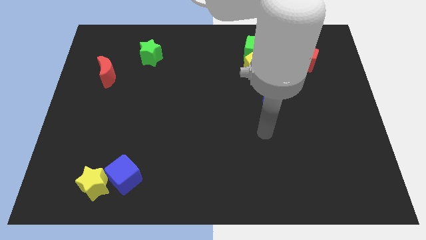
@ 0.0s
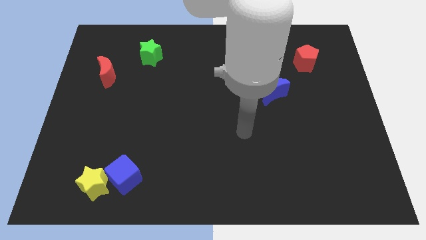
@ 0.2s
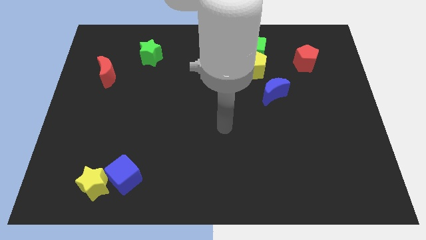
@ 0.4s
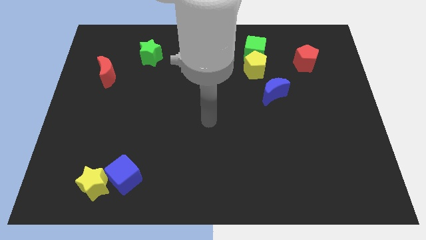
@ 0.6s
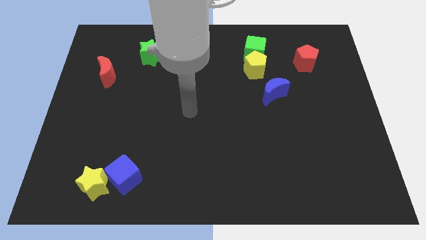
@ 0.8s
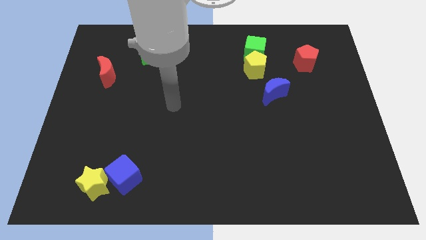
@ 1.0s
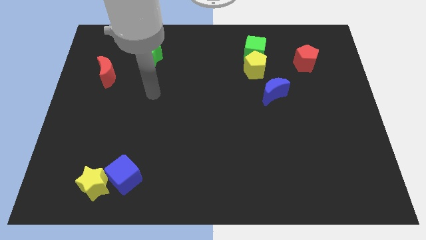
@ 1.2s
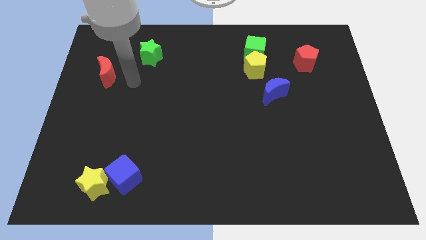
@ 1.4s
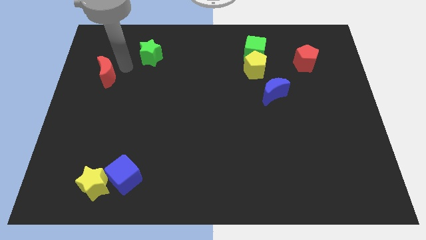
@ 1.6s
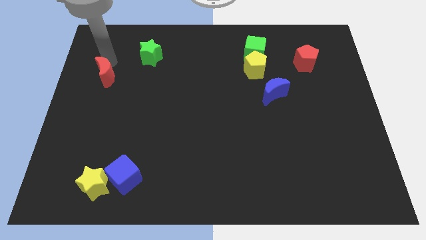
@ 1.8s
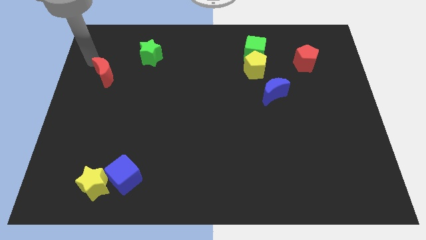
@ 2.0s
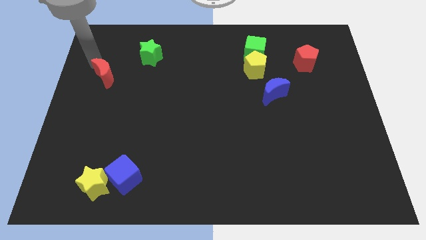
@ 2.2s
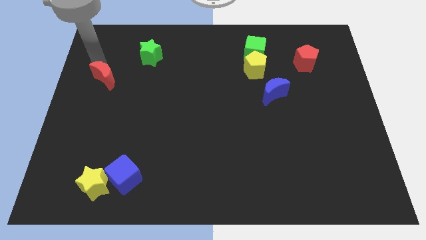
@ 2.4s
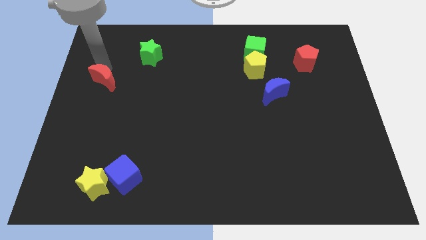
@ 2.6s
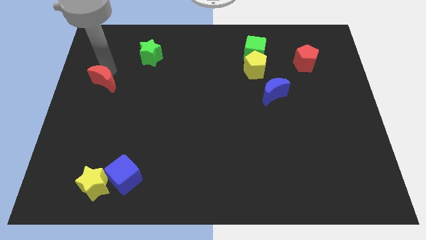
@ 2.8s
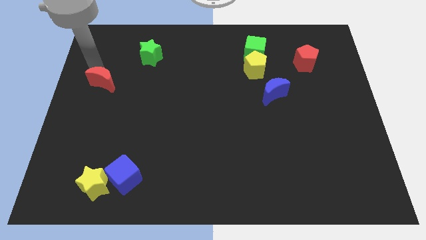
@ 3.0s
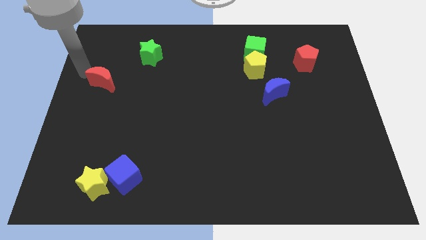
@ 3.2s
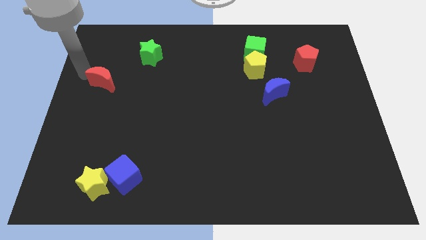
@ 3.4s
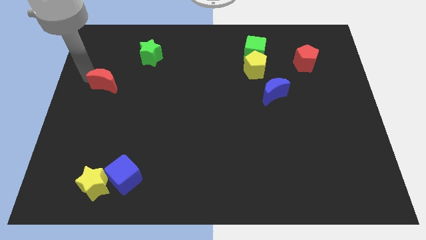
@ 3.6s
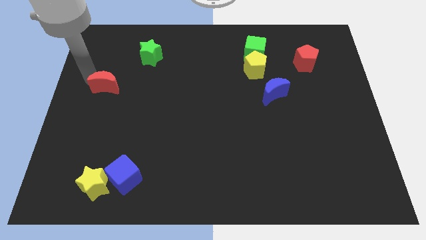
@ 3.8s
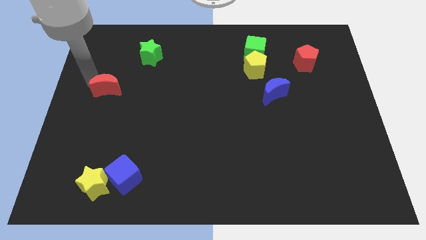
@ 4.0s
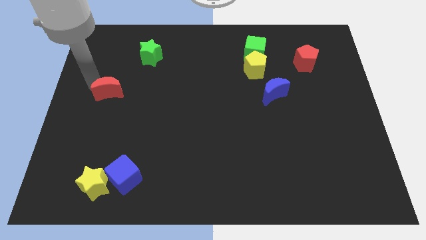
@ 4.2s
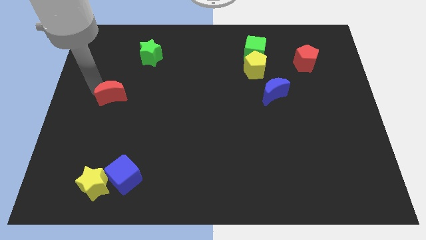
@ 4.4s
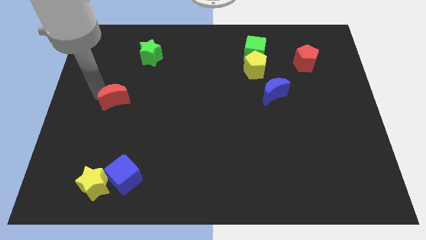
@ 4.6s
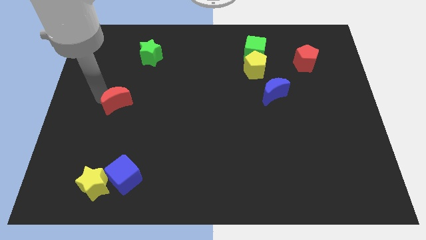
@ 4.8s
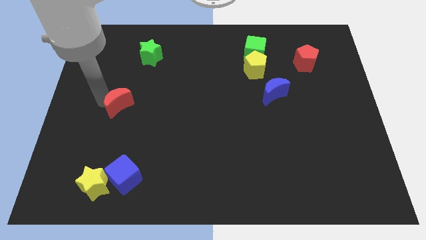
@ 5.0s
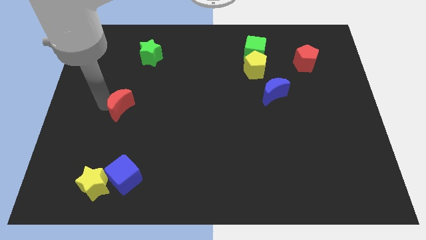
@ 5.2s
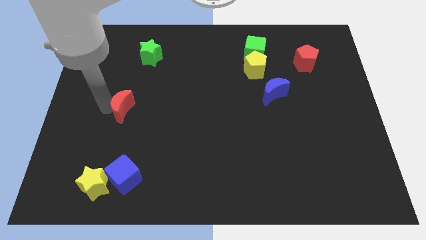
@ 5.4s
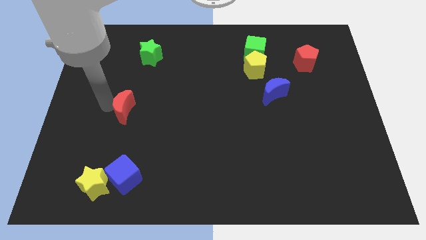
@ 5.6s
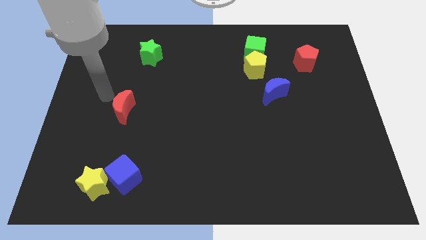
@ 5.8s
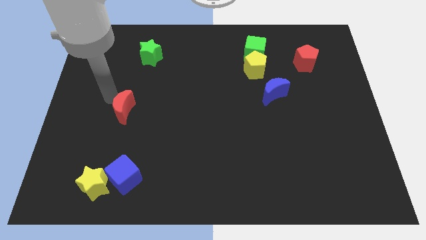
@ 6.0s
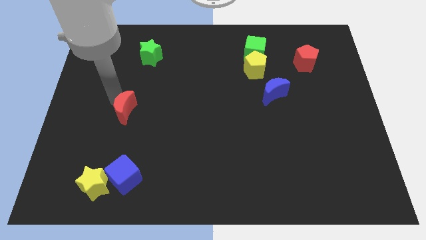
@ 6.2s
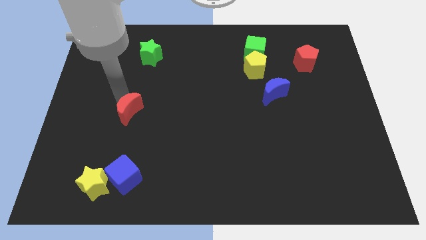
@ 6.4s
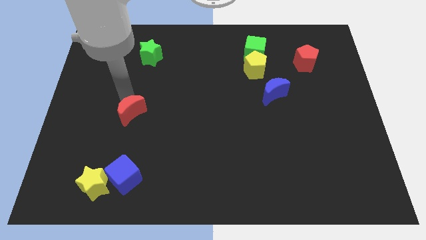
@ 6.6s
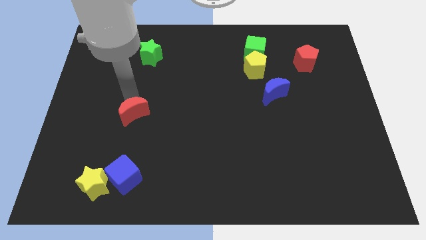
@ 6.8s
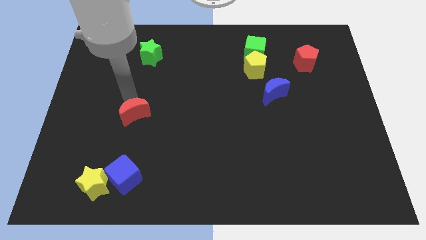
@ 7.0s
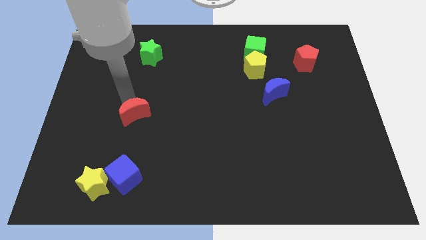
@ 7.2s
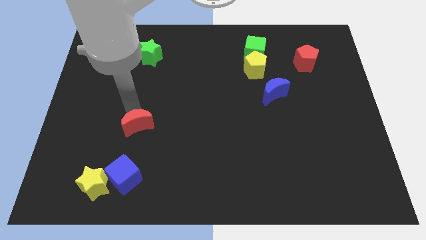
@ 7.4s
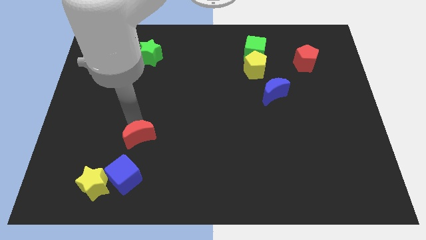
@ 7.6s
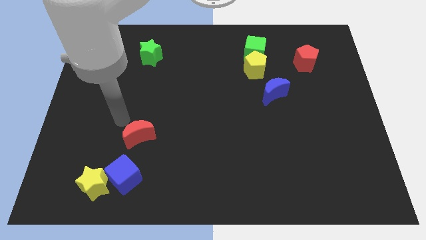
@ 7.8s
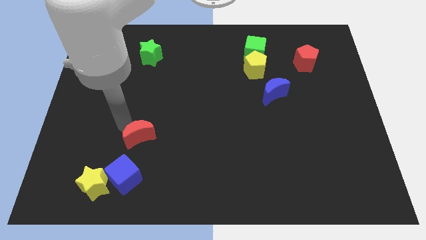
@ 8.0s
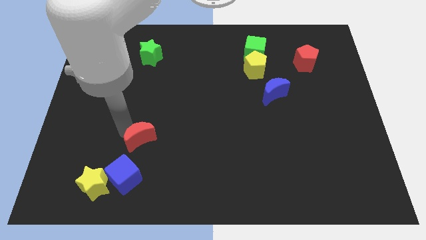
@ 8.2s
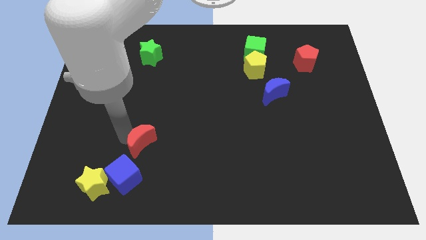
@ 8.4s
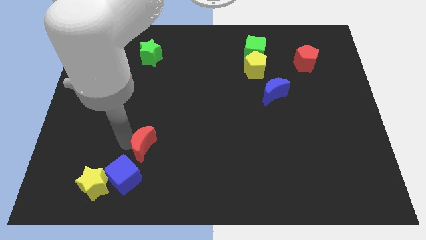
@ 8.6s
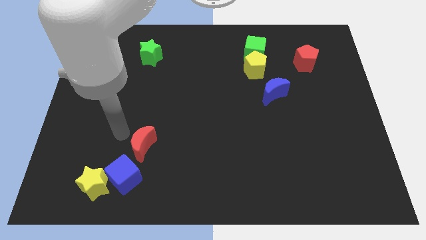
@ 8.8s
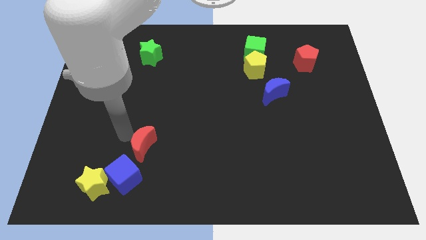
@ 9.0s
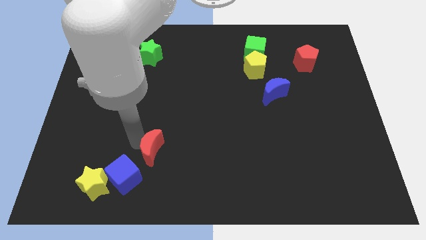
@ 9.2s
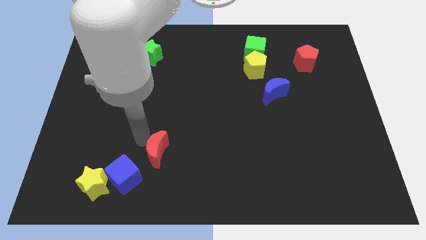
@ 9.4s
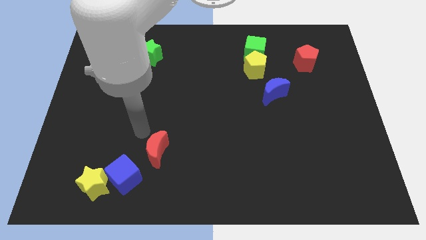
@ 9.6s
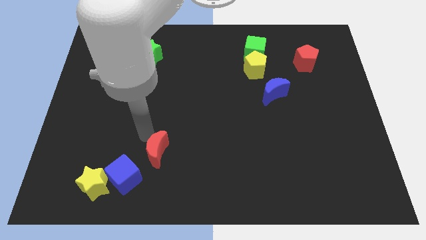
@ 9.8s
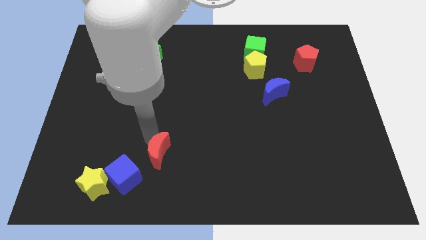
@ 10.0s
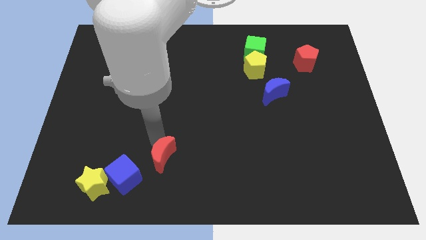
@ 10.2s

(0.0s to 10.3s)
move the red moon just right of the blue cube

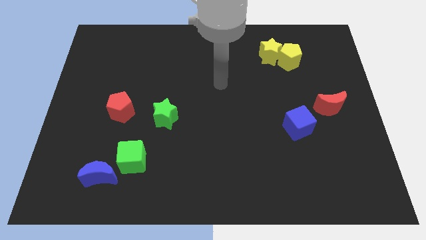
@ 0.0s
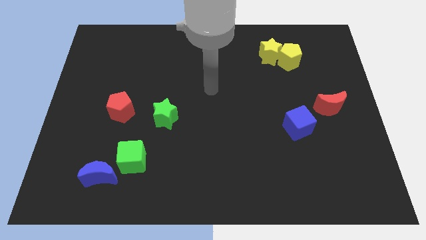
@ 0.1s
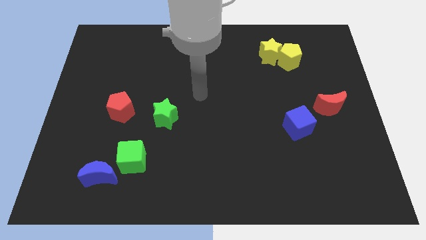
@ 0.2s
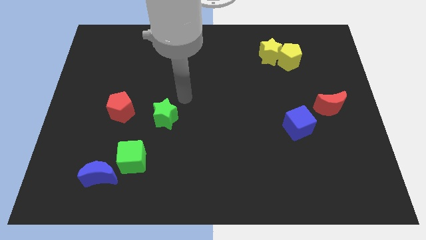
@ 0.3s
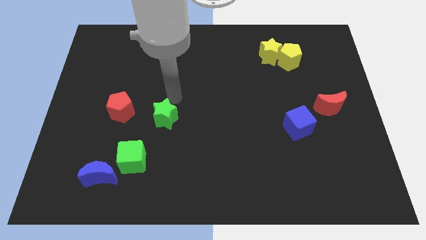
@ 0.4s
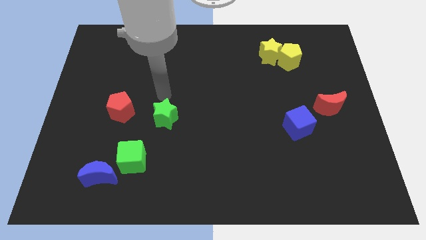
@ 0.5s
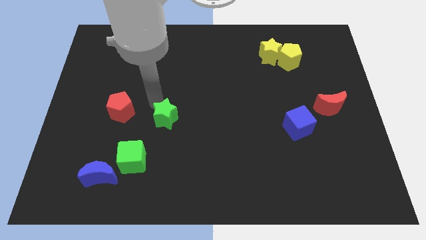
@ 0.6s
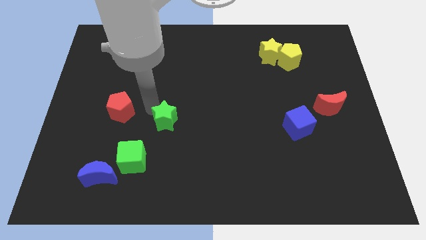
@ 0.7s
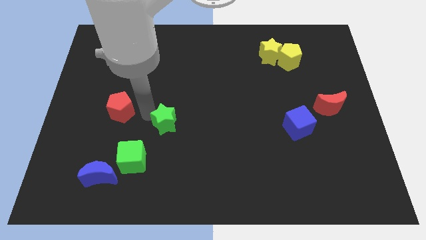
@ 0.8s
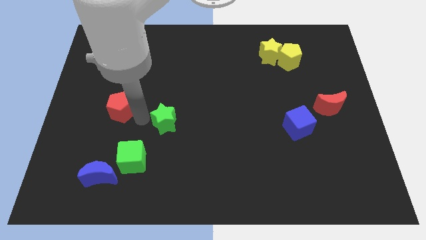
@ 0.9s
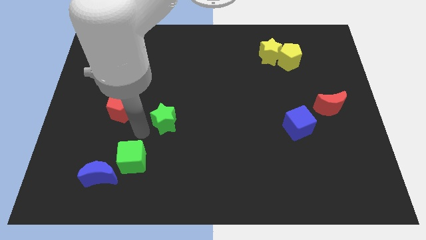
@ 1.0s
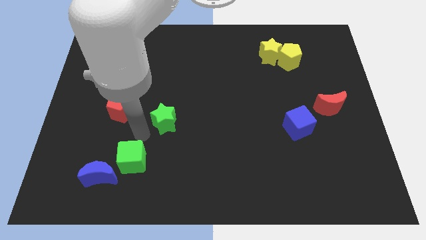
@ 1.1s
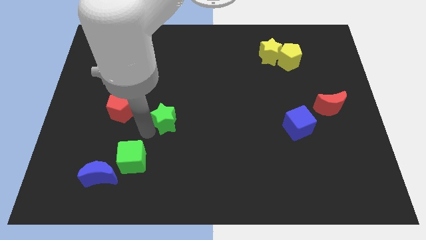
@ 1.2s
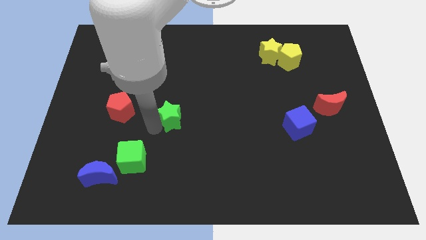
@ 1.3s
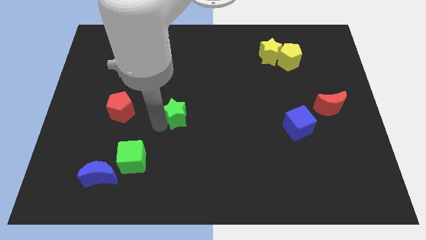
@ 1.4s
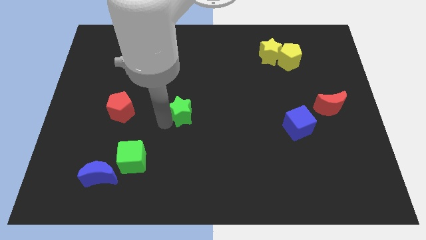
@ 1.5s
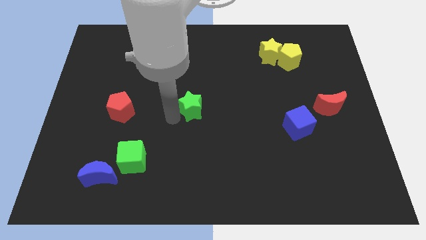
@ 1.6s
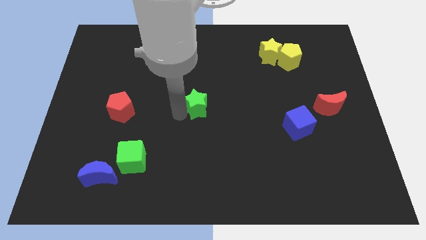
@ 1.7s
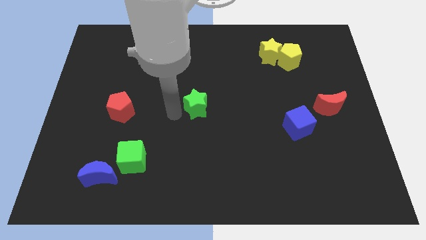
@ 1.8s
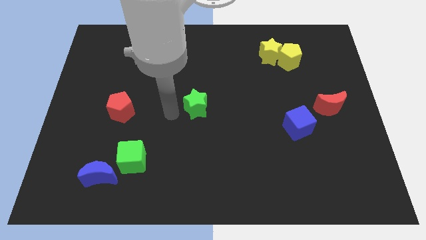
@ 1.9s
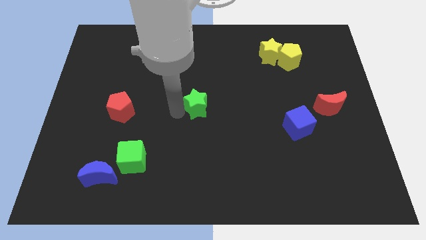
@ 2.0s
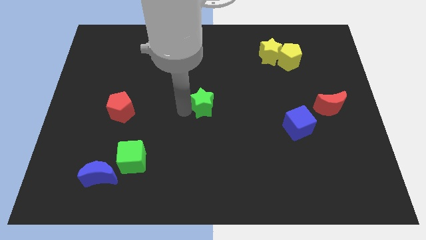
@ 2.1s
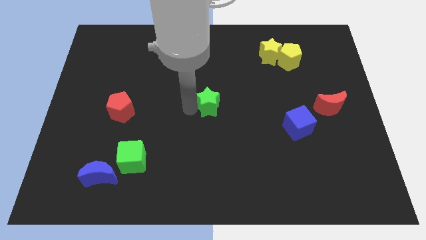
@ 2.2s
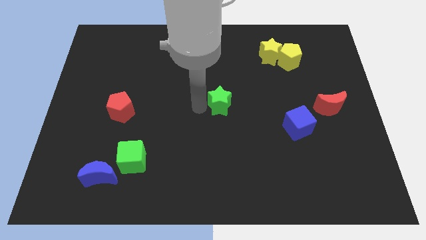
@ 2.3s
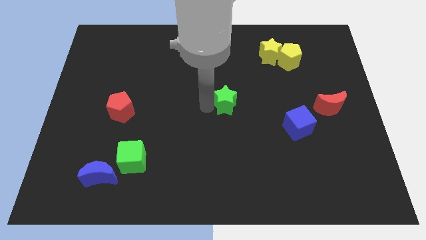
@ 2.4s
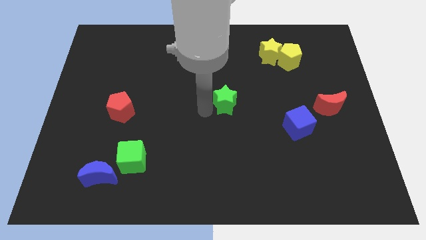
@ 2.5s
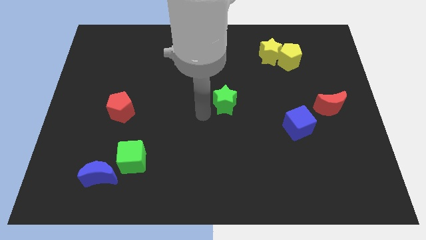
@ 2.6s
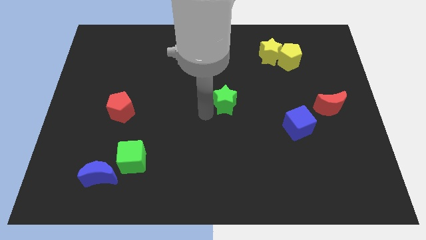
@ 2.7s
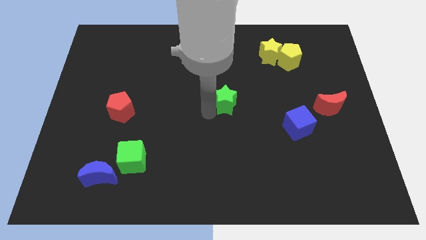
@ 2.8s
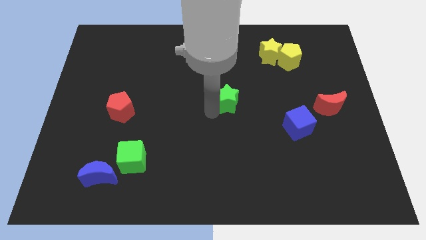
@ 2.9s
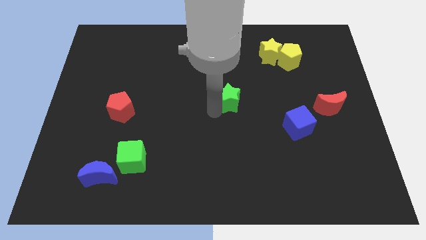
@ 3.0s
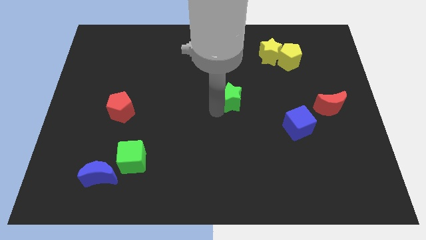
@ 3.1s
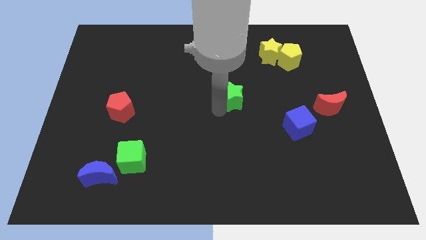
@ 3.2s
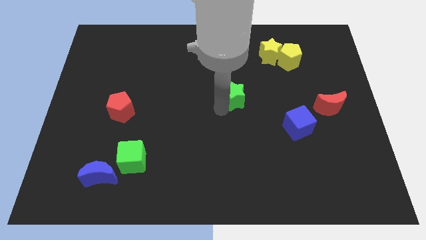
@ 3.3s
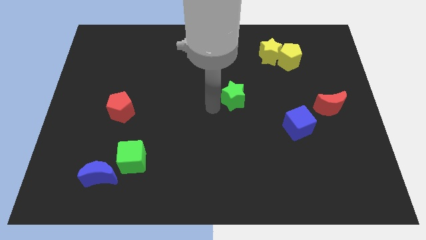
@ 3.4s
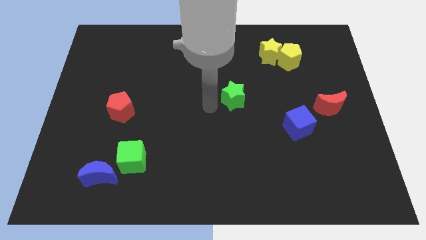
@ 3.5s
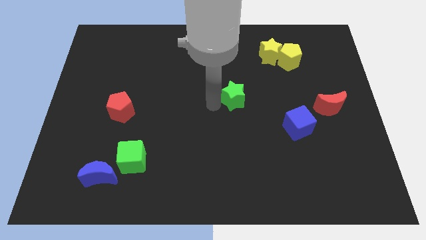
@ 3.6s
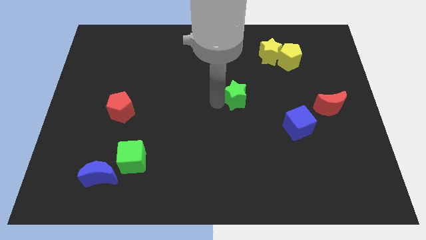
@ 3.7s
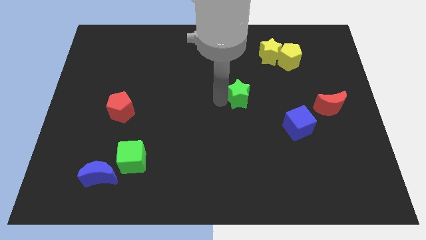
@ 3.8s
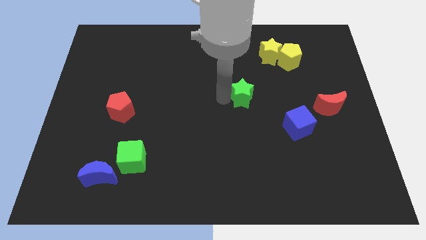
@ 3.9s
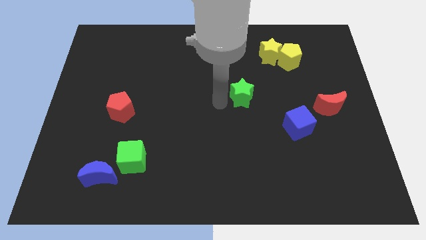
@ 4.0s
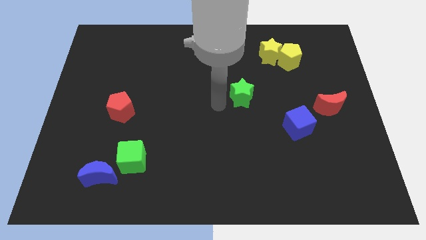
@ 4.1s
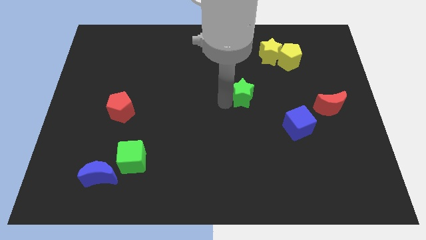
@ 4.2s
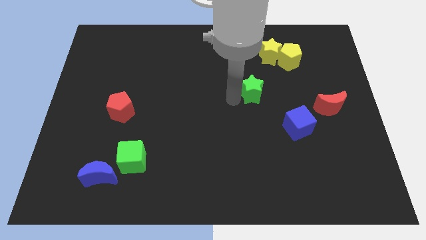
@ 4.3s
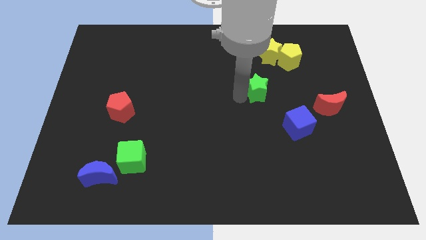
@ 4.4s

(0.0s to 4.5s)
push the green star below the yellow star
